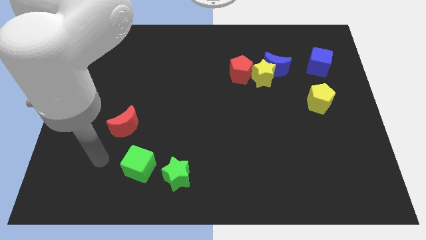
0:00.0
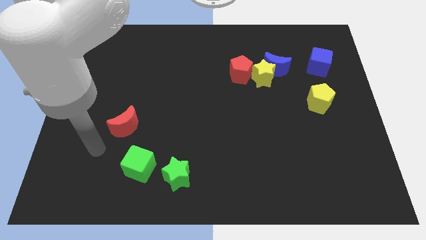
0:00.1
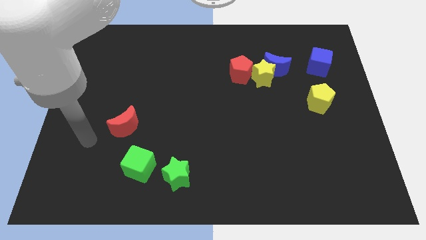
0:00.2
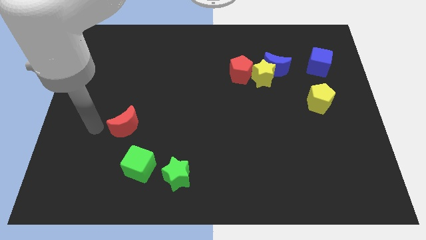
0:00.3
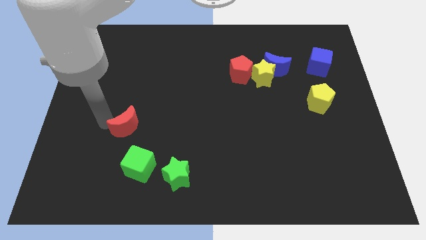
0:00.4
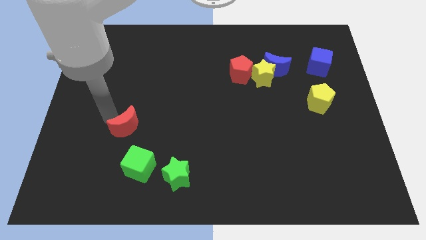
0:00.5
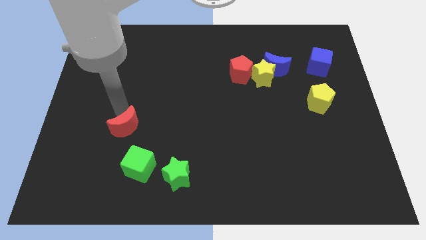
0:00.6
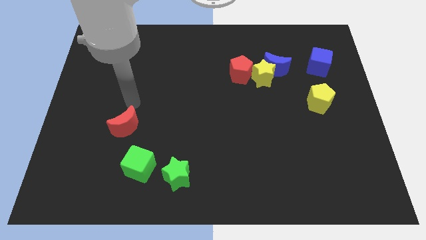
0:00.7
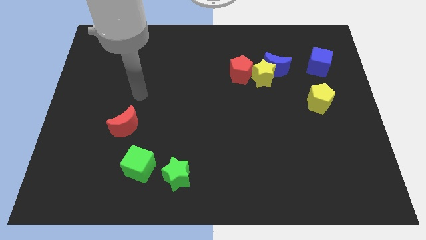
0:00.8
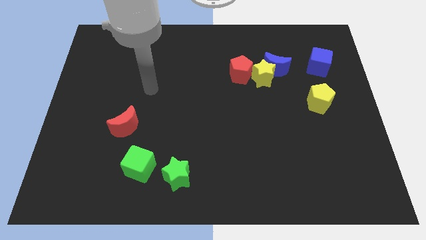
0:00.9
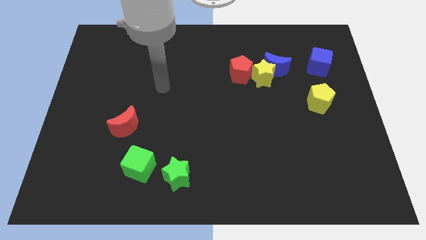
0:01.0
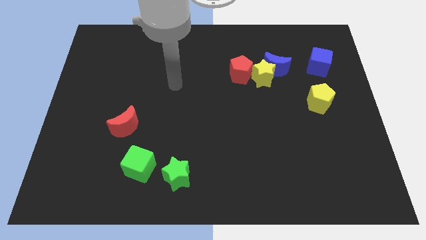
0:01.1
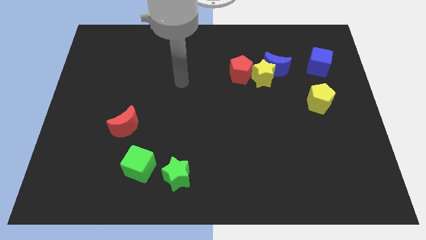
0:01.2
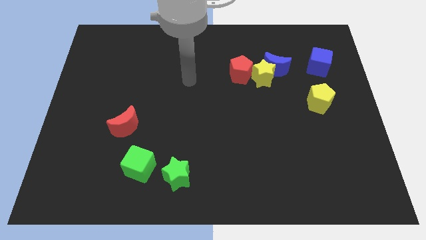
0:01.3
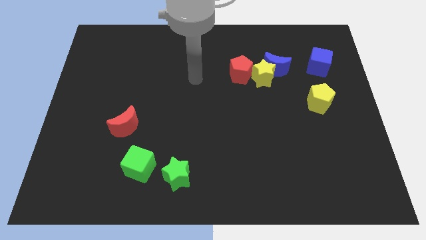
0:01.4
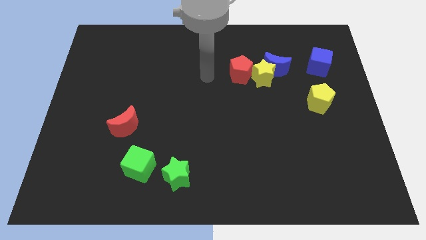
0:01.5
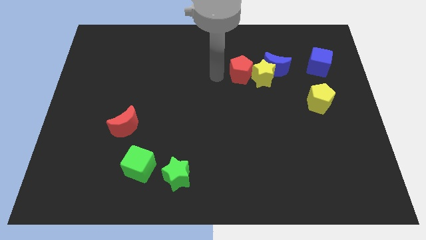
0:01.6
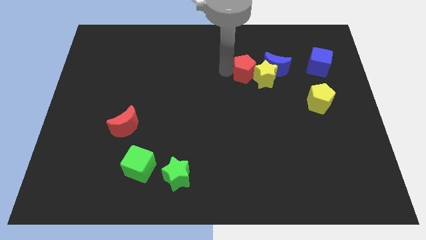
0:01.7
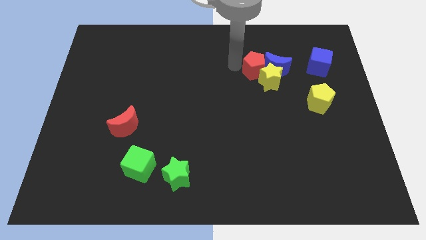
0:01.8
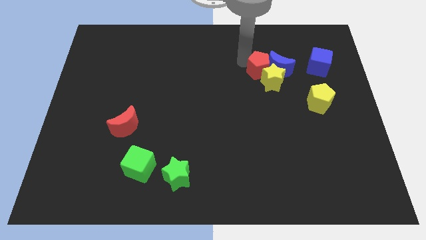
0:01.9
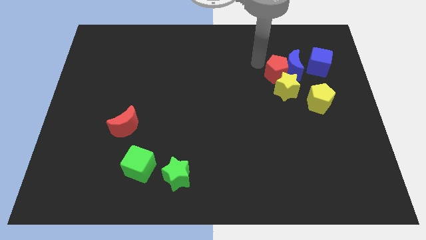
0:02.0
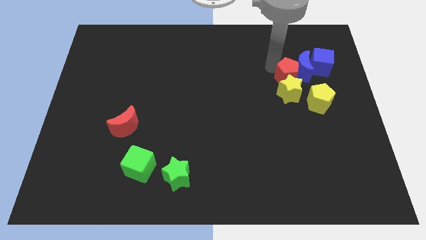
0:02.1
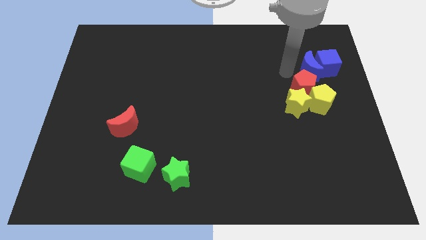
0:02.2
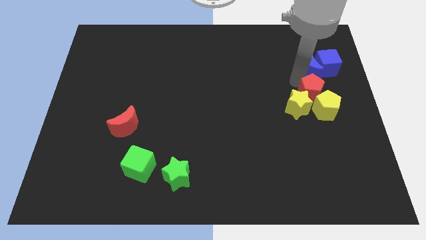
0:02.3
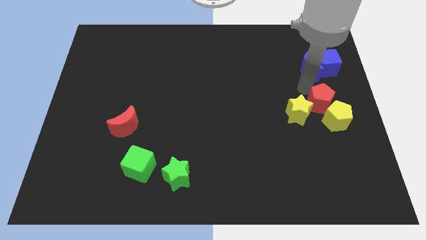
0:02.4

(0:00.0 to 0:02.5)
move the yellow star away from the blue moon and red pentagon

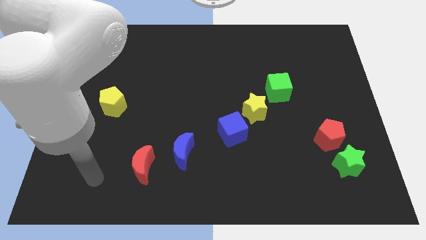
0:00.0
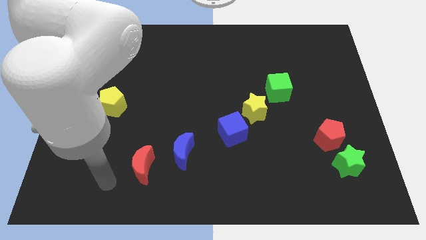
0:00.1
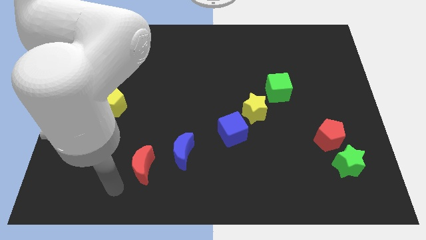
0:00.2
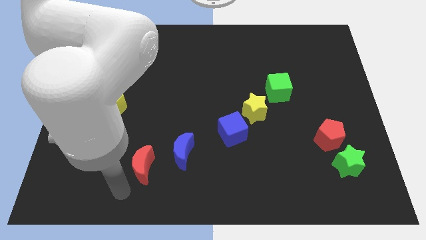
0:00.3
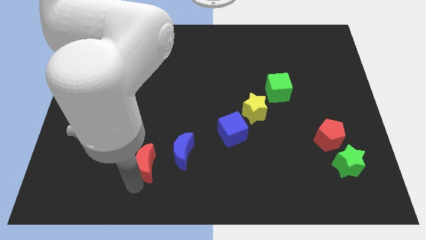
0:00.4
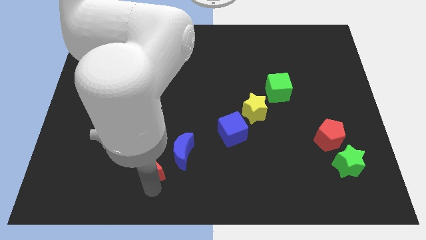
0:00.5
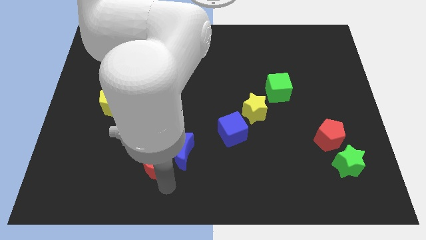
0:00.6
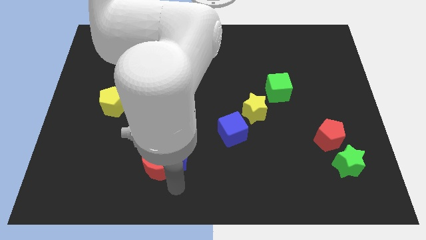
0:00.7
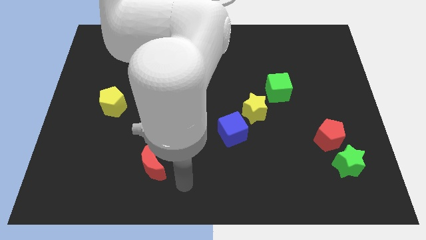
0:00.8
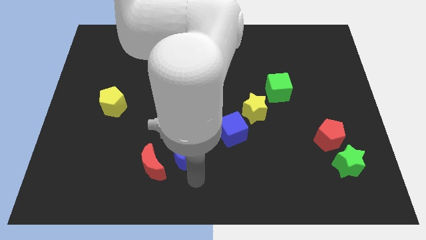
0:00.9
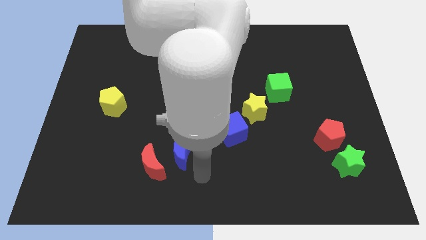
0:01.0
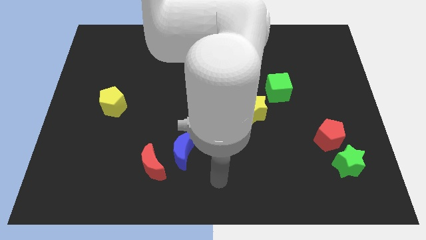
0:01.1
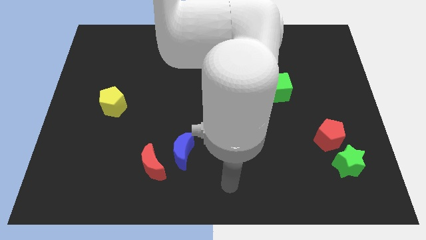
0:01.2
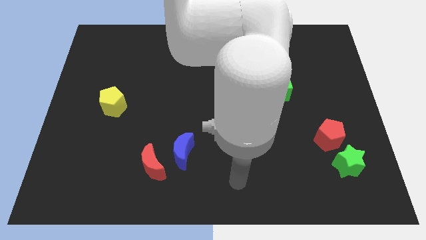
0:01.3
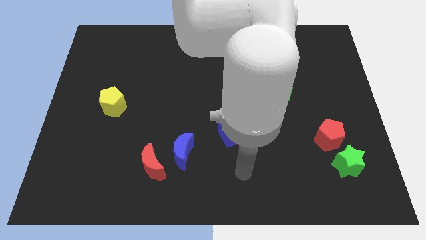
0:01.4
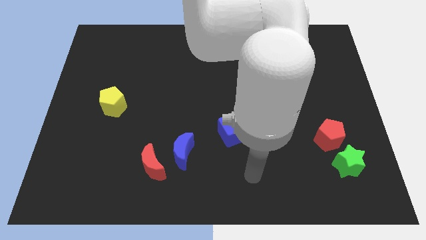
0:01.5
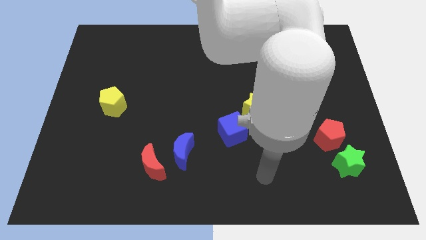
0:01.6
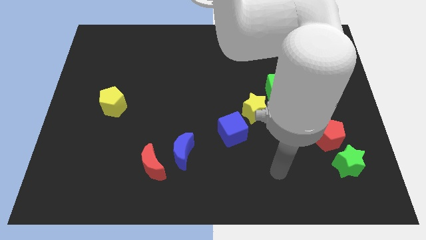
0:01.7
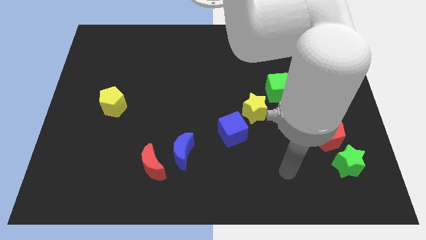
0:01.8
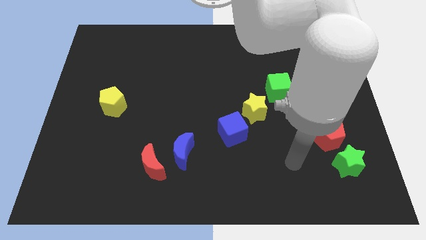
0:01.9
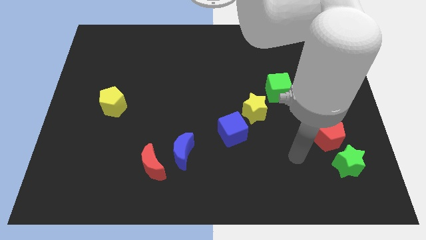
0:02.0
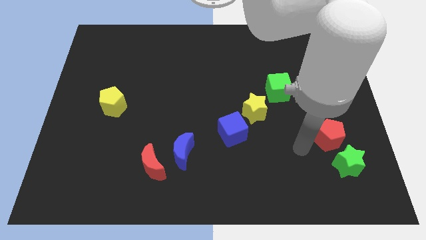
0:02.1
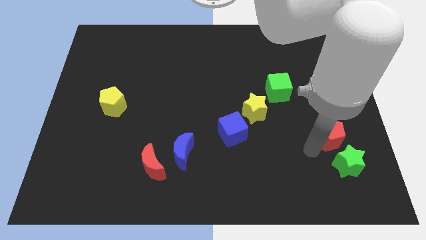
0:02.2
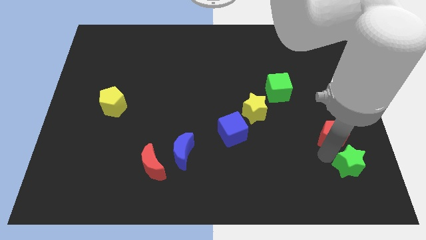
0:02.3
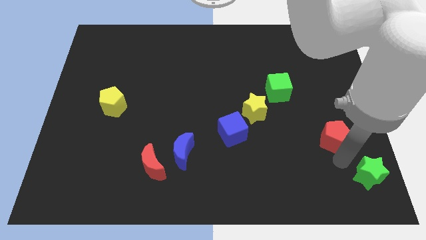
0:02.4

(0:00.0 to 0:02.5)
separate the red pentagon from the green star

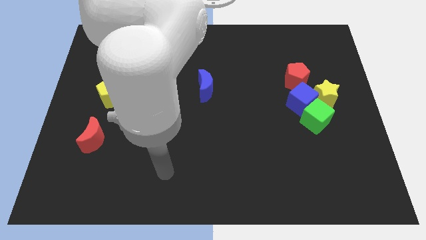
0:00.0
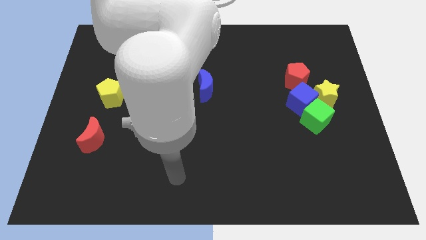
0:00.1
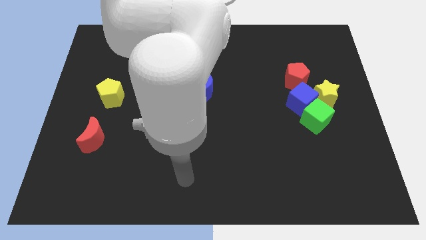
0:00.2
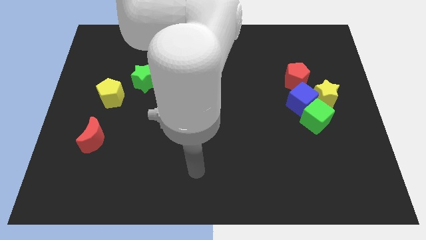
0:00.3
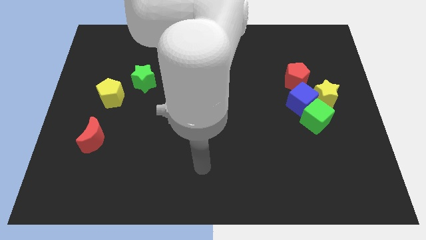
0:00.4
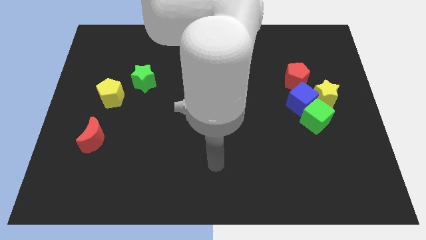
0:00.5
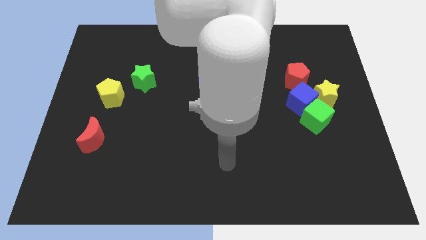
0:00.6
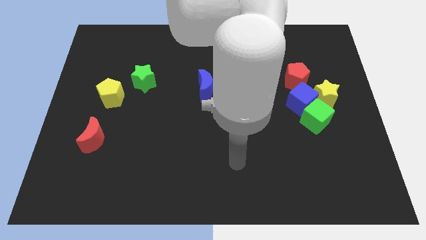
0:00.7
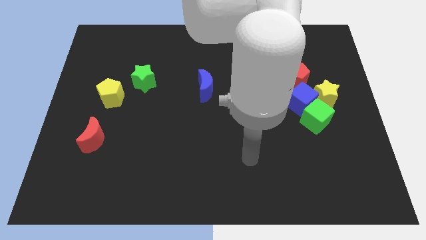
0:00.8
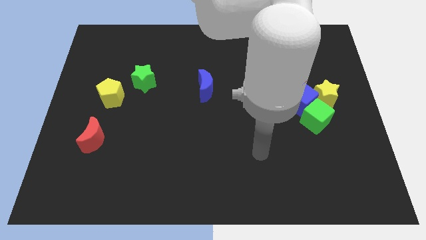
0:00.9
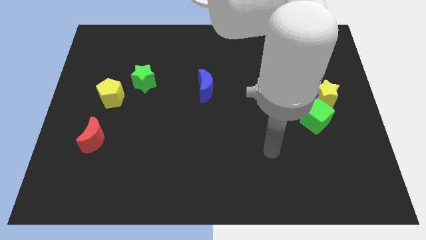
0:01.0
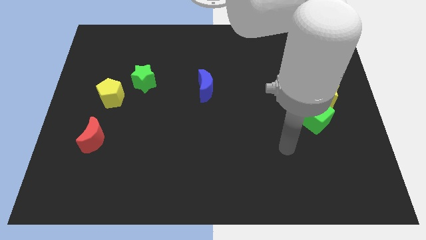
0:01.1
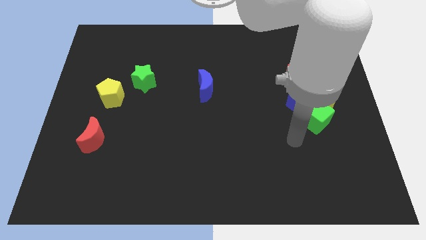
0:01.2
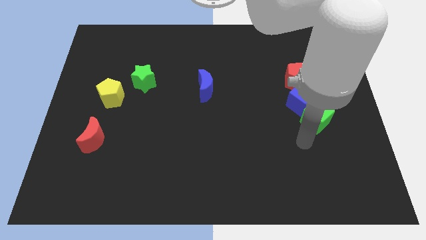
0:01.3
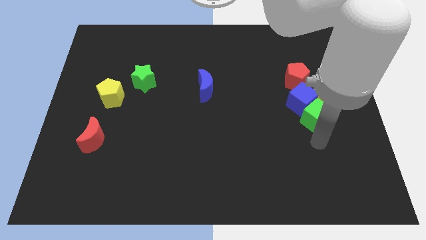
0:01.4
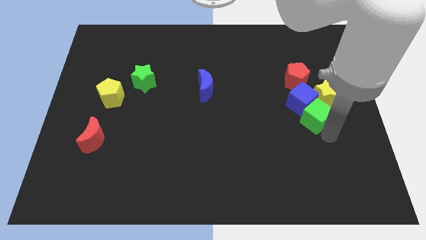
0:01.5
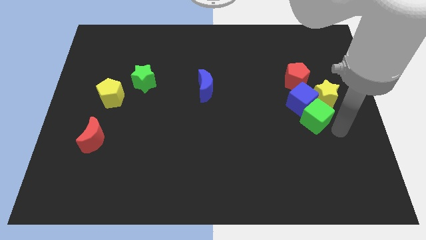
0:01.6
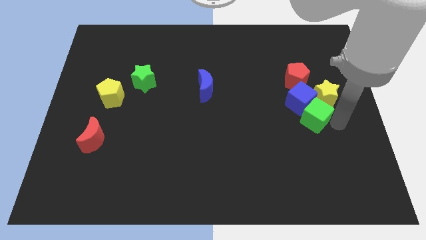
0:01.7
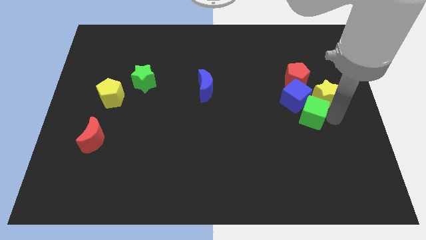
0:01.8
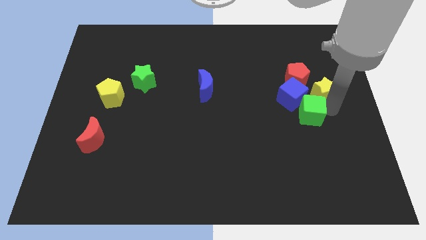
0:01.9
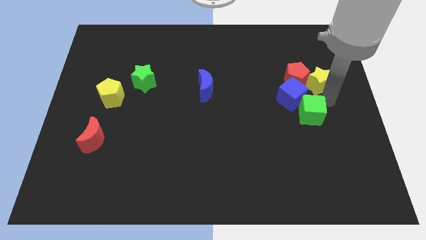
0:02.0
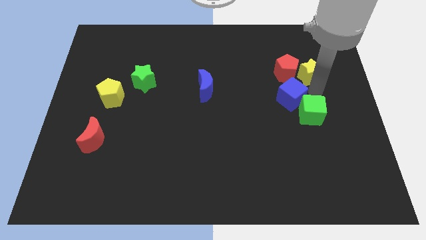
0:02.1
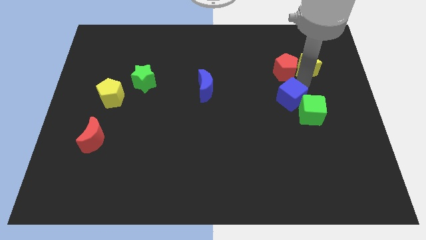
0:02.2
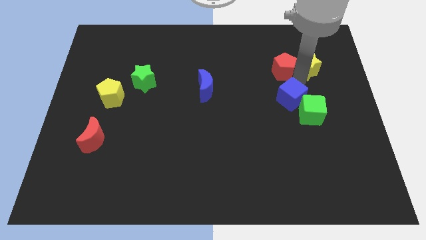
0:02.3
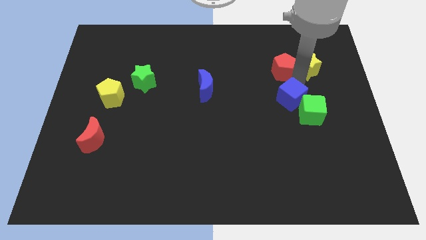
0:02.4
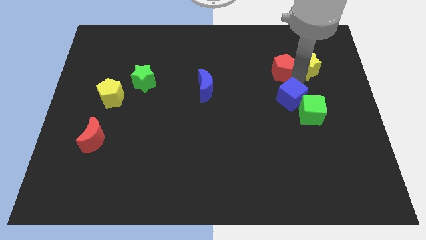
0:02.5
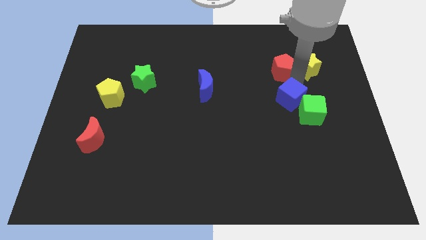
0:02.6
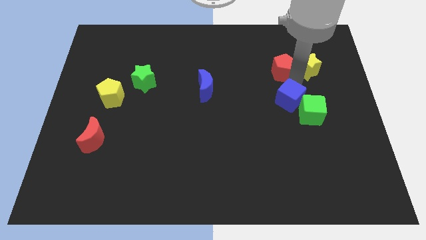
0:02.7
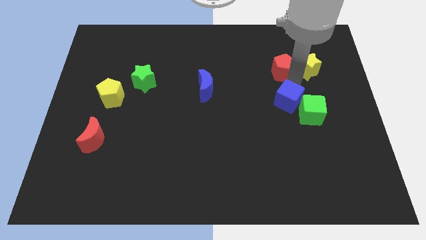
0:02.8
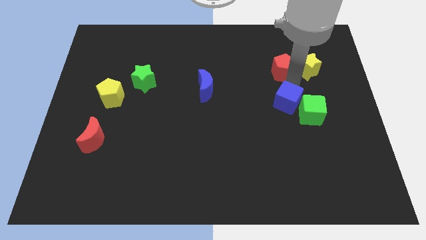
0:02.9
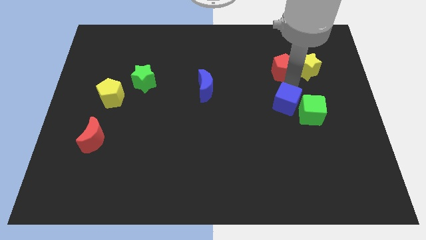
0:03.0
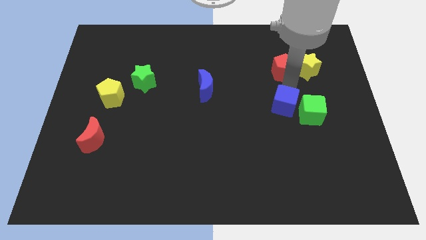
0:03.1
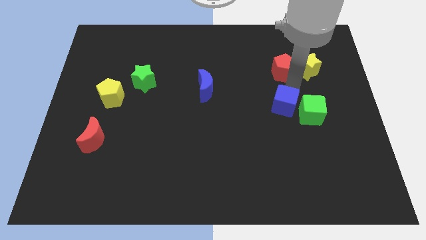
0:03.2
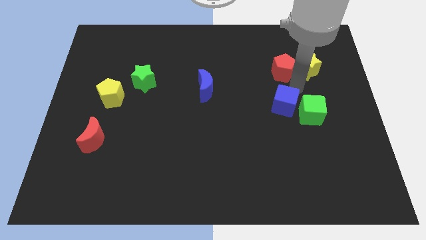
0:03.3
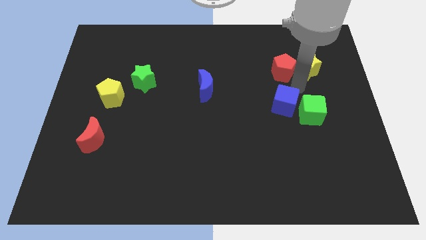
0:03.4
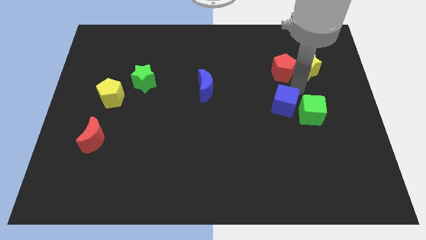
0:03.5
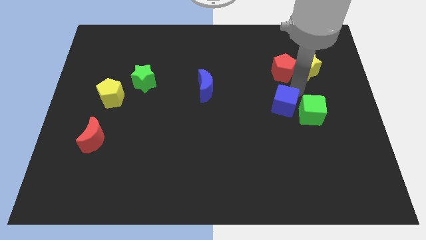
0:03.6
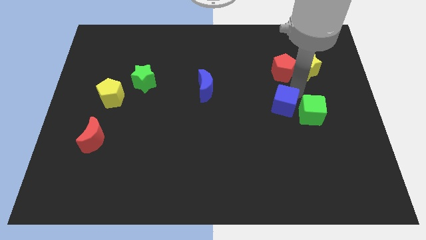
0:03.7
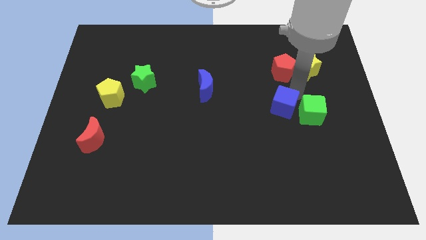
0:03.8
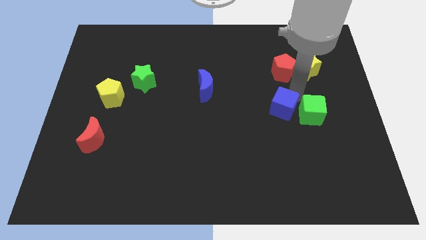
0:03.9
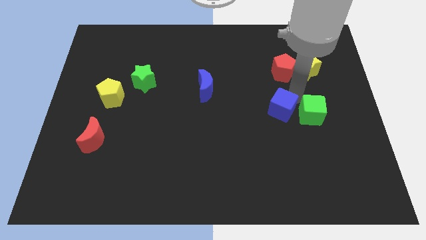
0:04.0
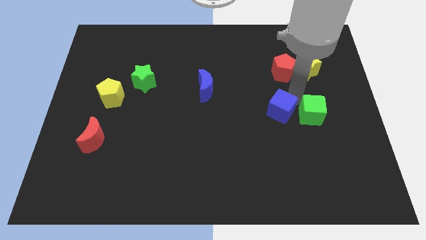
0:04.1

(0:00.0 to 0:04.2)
move the blue cube away from the group of blocks

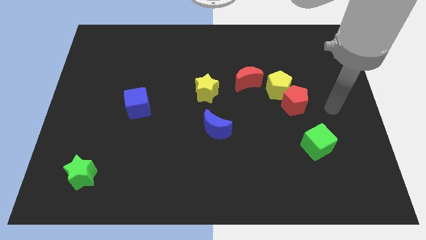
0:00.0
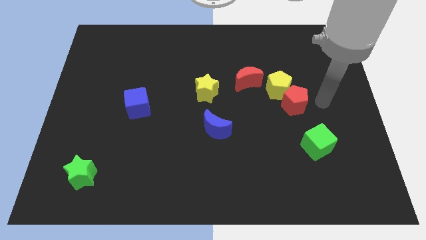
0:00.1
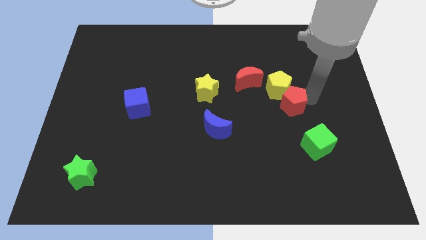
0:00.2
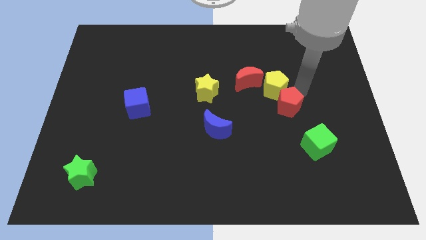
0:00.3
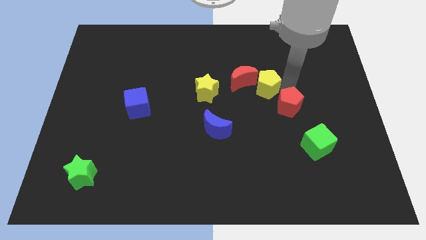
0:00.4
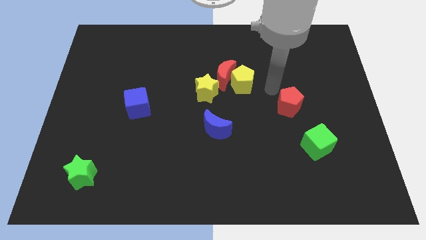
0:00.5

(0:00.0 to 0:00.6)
pull the red pentagon apart from the yellow pentagon
